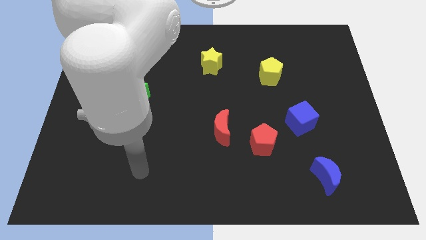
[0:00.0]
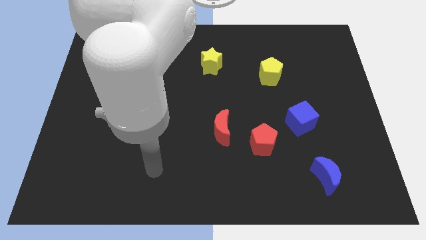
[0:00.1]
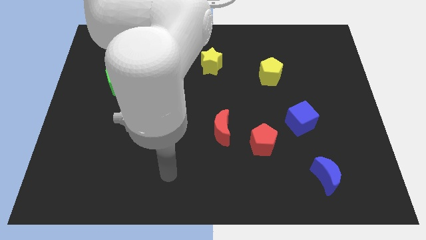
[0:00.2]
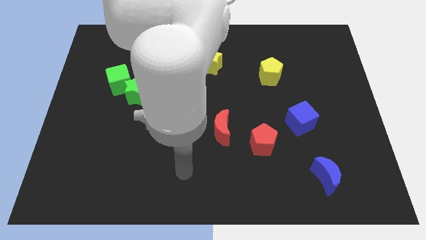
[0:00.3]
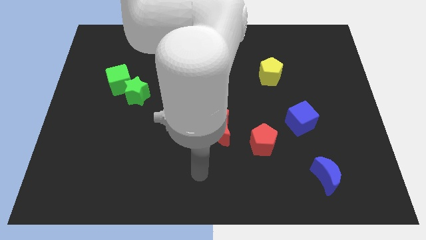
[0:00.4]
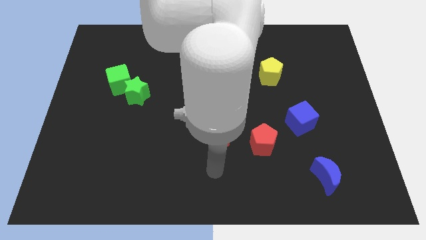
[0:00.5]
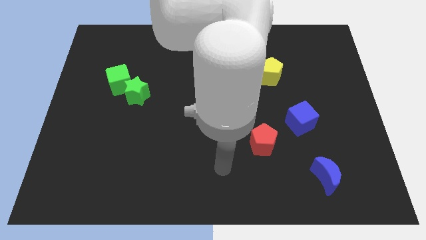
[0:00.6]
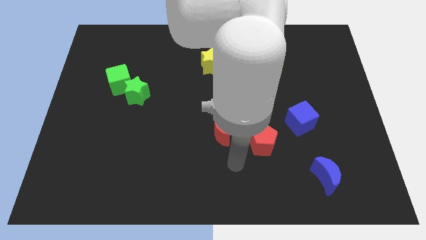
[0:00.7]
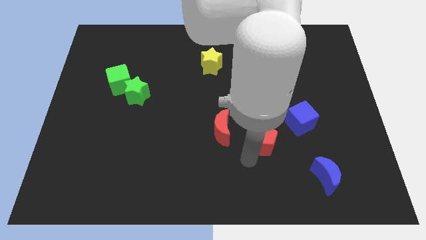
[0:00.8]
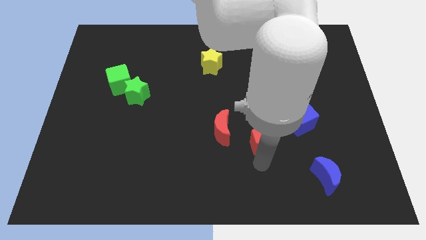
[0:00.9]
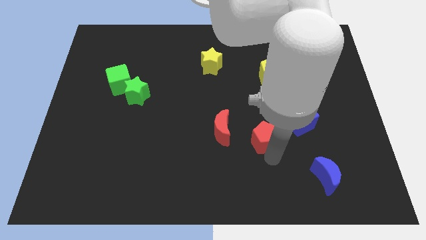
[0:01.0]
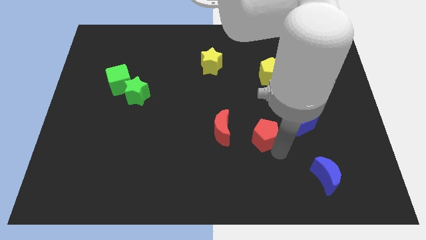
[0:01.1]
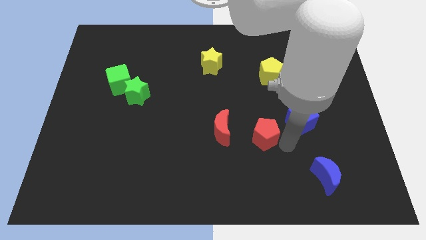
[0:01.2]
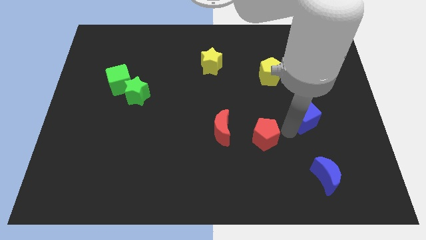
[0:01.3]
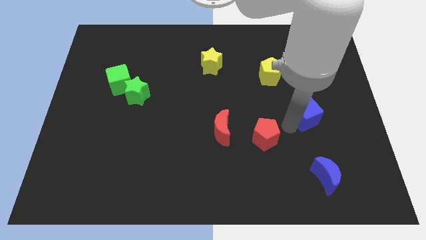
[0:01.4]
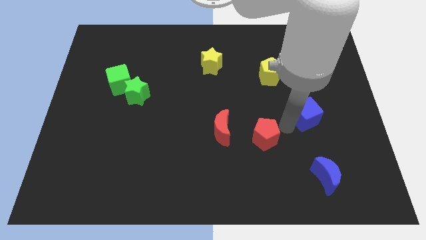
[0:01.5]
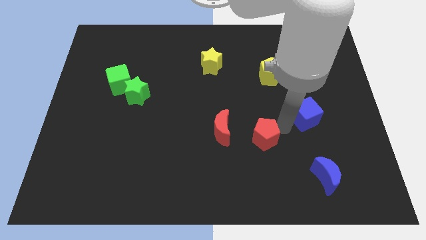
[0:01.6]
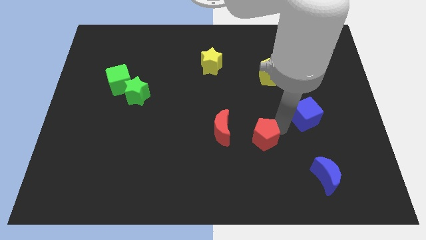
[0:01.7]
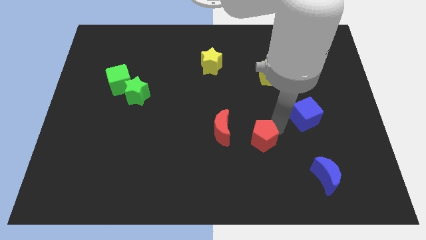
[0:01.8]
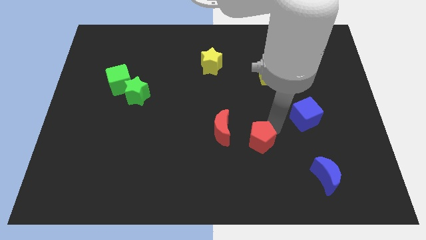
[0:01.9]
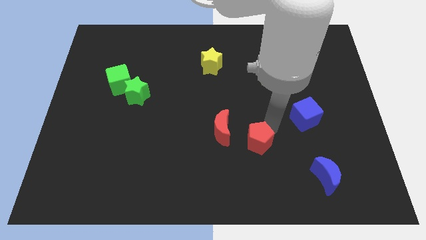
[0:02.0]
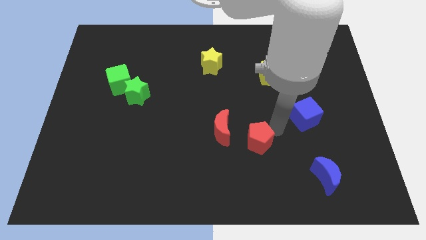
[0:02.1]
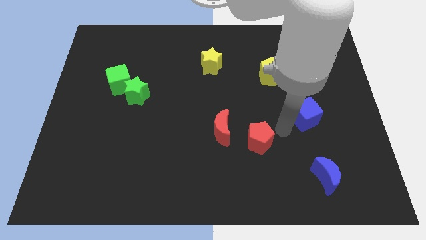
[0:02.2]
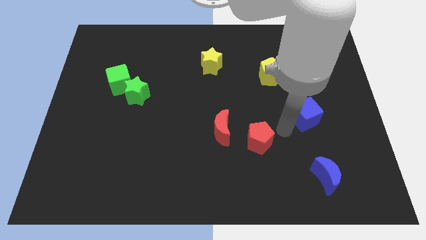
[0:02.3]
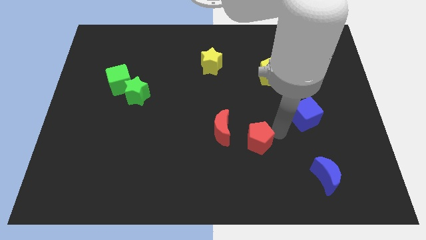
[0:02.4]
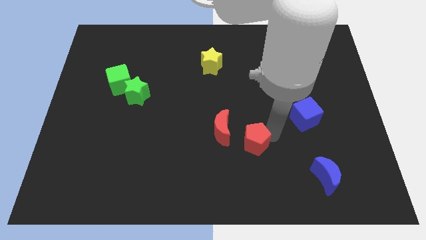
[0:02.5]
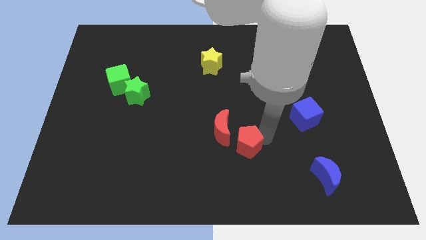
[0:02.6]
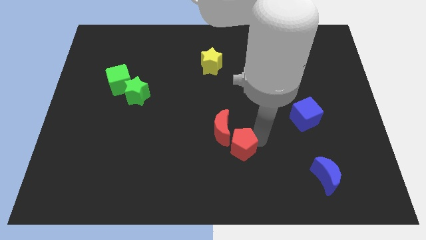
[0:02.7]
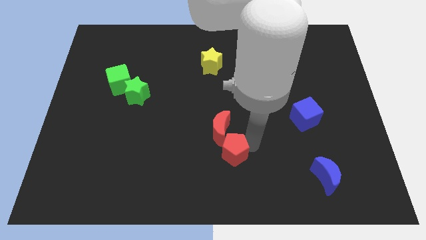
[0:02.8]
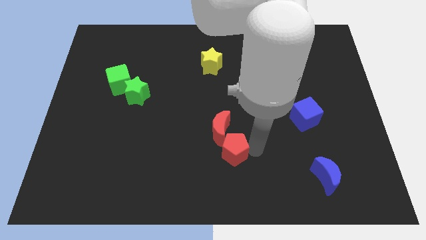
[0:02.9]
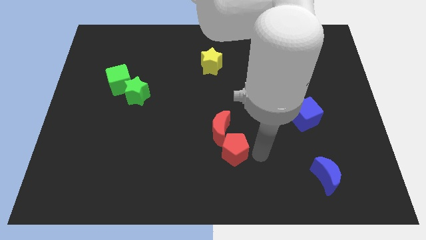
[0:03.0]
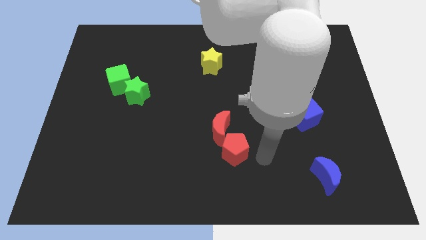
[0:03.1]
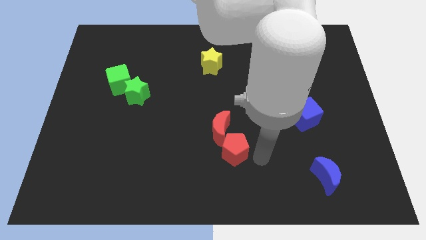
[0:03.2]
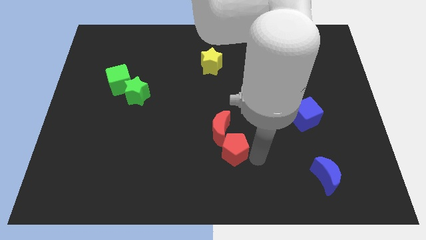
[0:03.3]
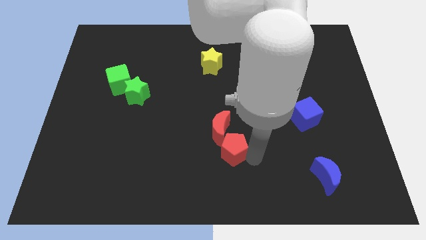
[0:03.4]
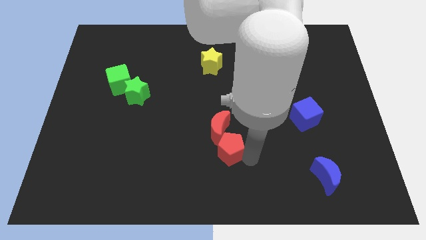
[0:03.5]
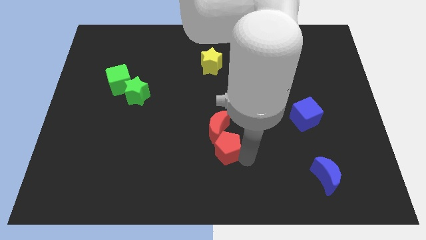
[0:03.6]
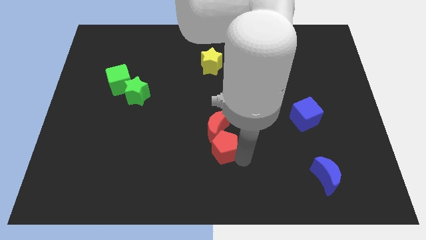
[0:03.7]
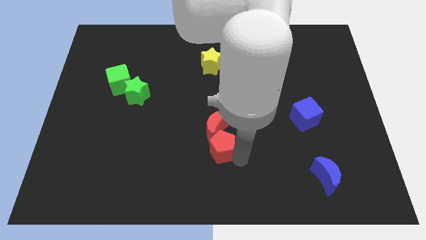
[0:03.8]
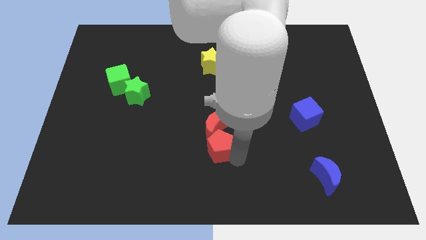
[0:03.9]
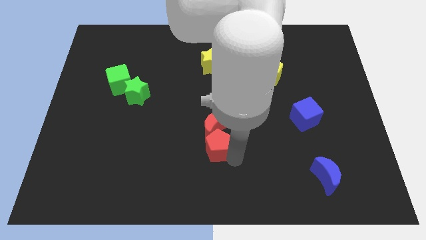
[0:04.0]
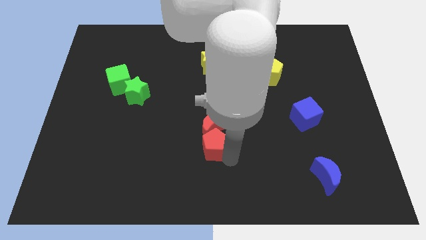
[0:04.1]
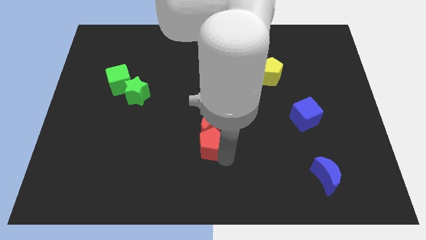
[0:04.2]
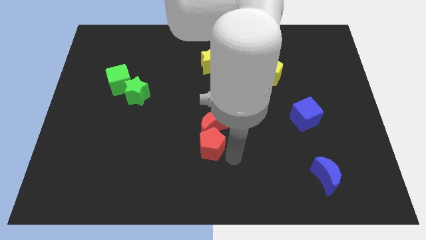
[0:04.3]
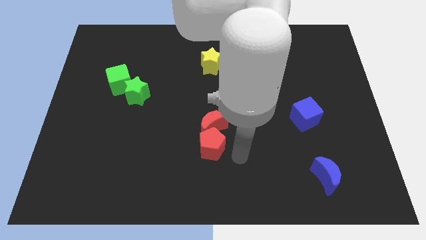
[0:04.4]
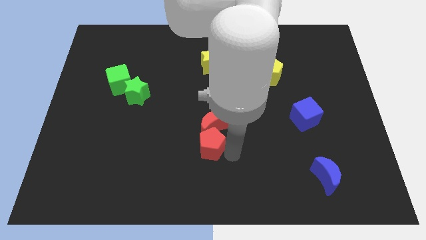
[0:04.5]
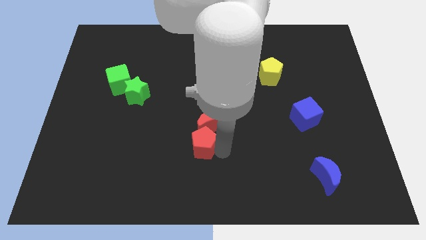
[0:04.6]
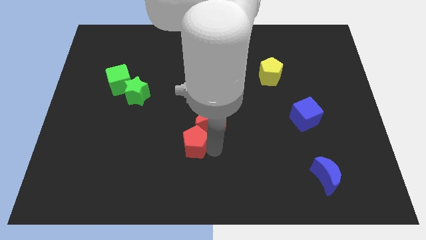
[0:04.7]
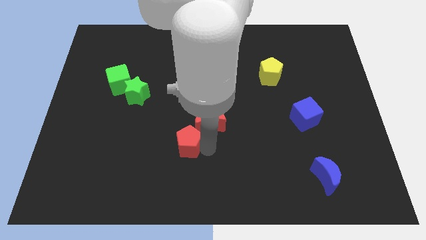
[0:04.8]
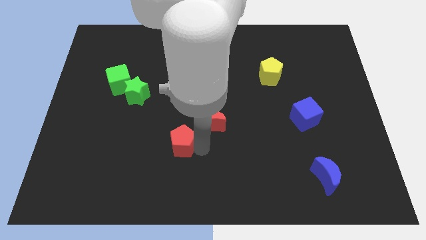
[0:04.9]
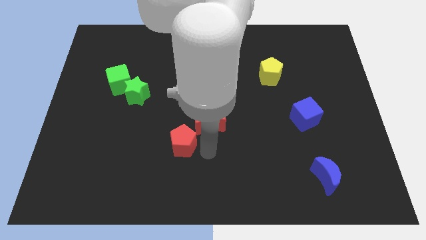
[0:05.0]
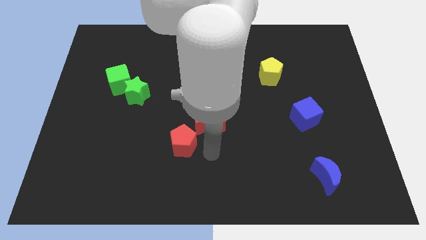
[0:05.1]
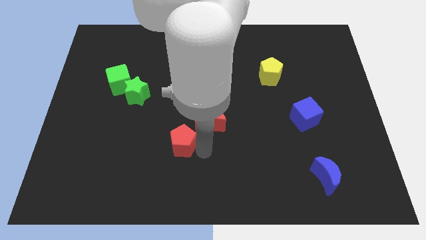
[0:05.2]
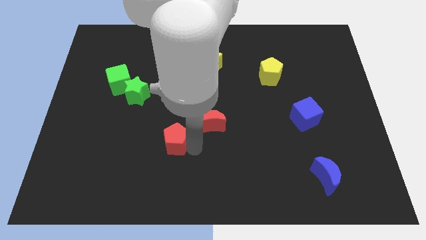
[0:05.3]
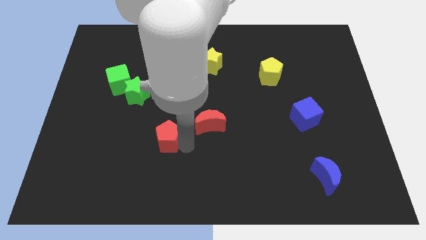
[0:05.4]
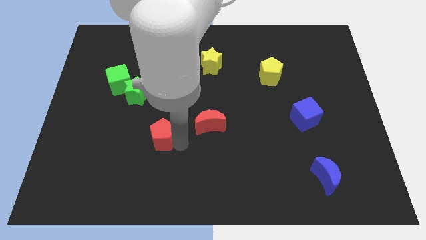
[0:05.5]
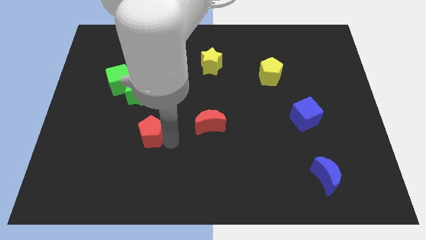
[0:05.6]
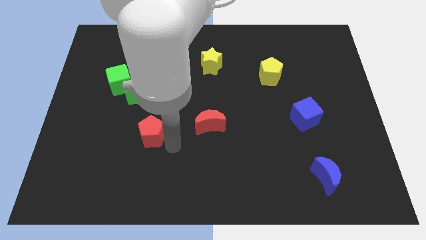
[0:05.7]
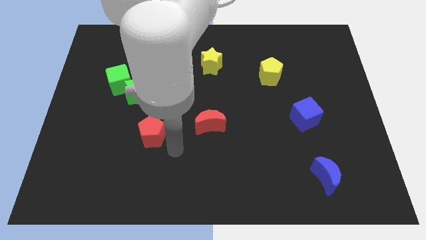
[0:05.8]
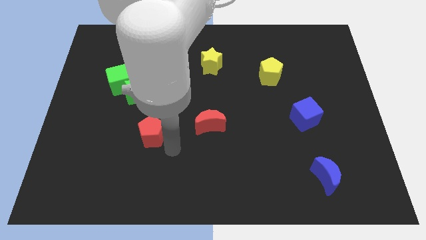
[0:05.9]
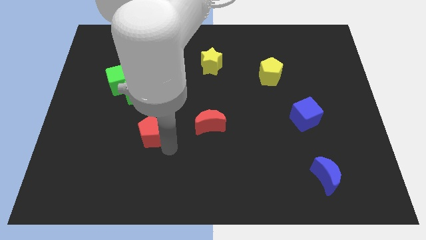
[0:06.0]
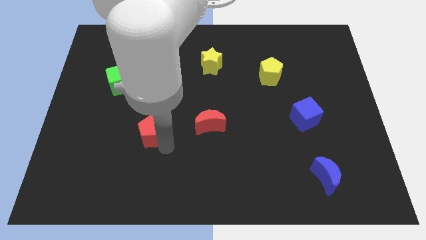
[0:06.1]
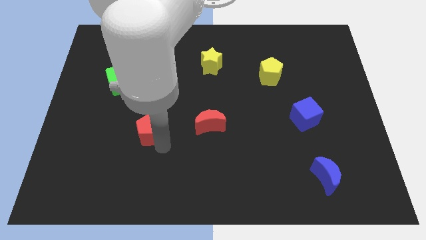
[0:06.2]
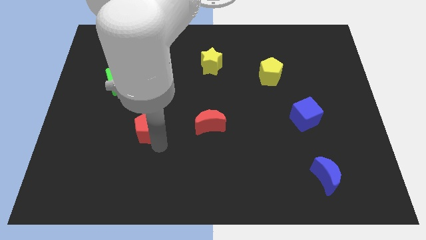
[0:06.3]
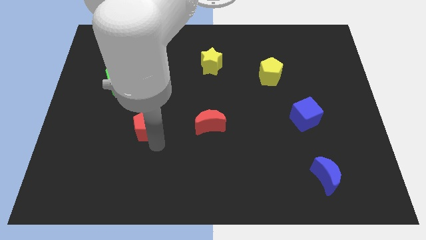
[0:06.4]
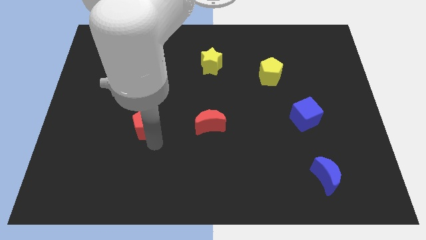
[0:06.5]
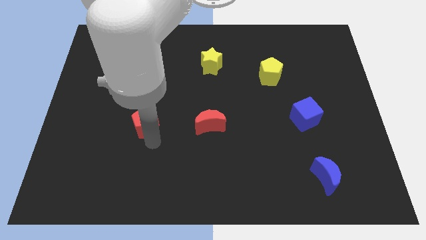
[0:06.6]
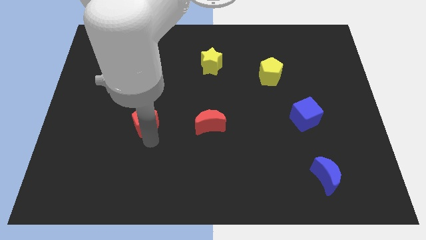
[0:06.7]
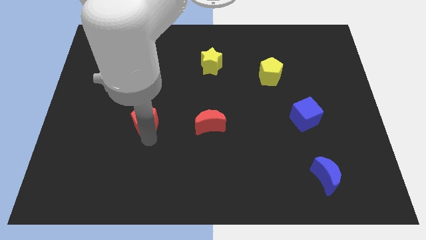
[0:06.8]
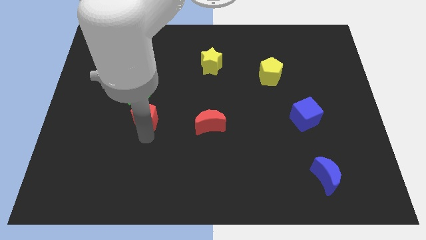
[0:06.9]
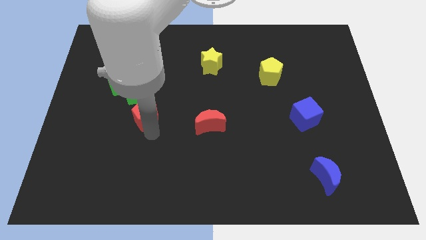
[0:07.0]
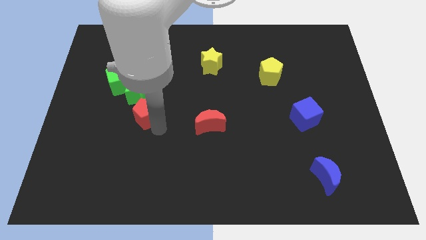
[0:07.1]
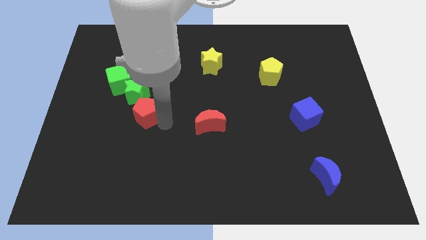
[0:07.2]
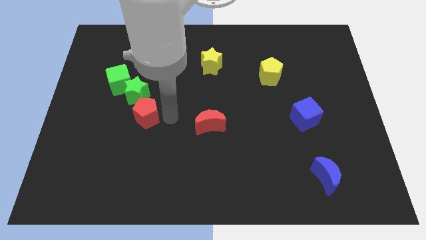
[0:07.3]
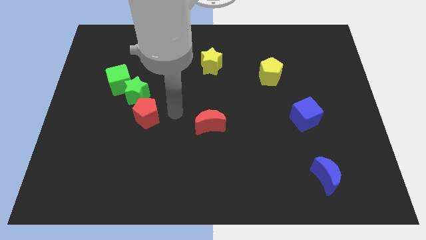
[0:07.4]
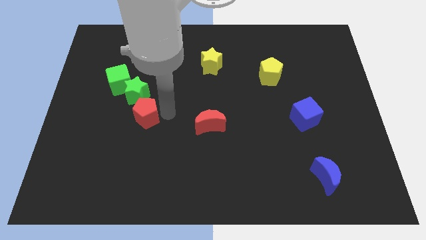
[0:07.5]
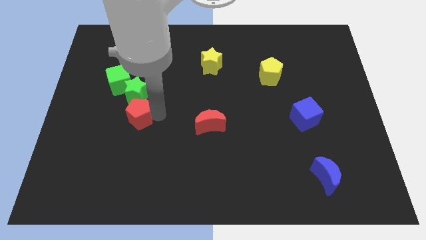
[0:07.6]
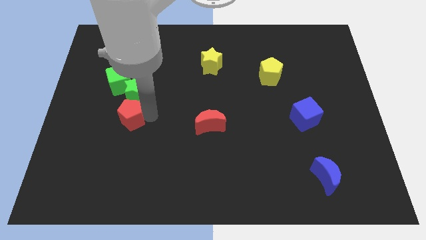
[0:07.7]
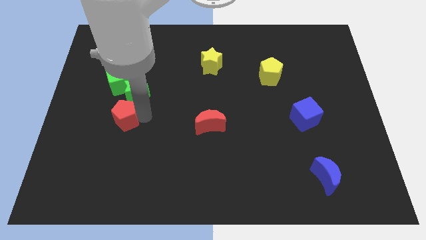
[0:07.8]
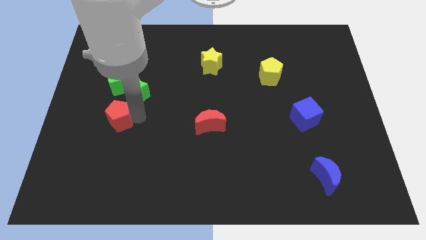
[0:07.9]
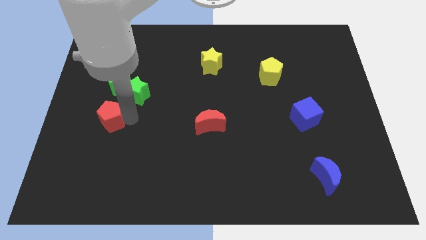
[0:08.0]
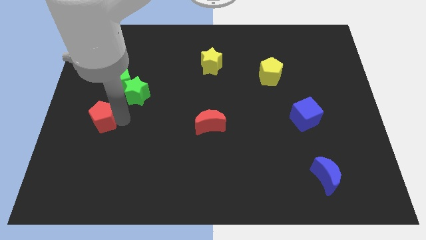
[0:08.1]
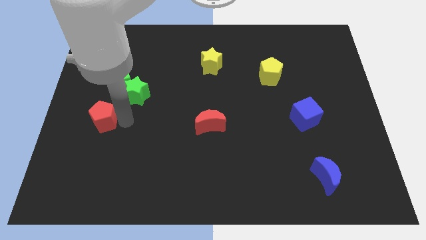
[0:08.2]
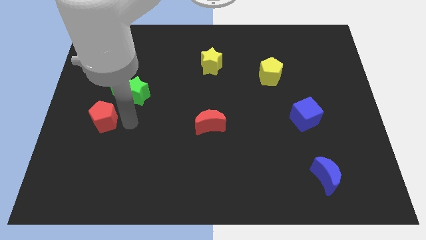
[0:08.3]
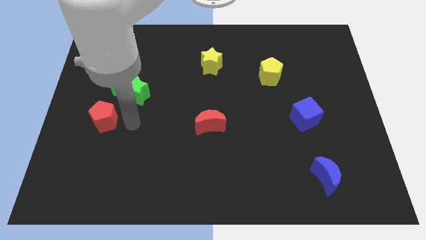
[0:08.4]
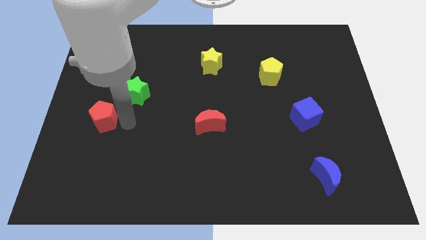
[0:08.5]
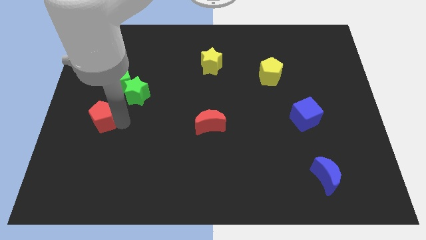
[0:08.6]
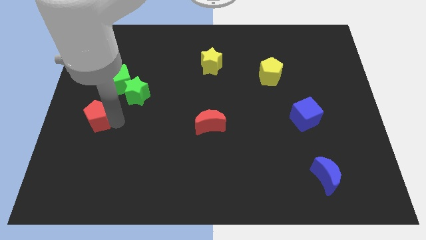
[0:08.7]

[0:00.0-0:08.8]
move the red pentagon to the left side of the board
